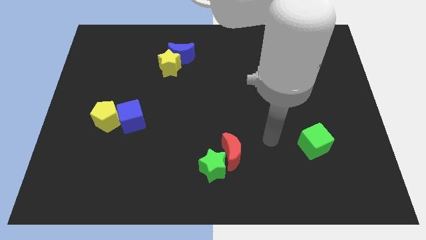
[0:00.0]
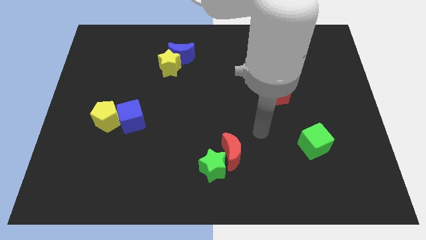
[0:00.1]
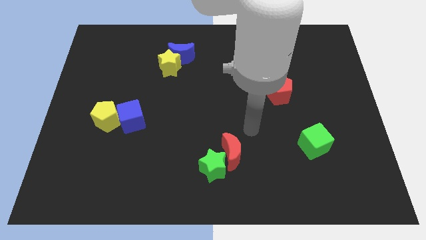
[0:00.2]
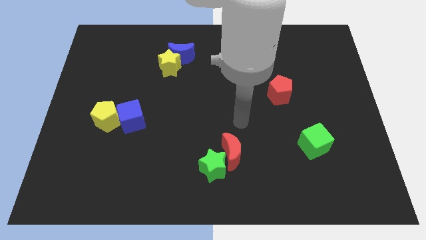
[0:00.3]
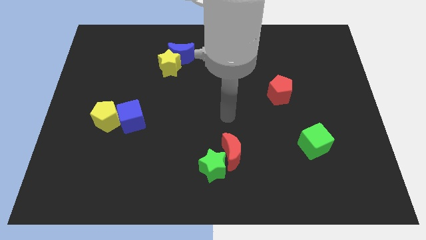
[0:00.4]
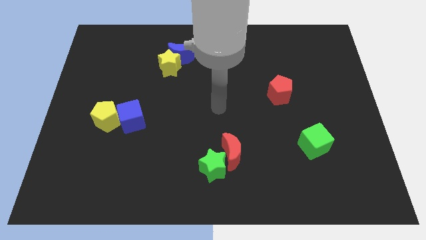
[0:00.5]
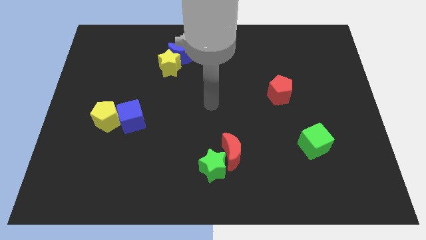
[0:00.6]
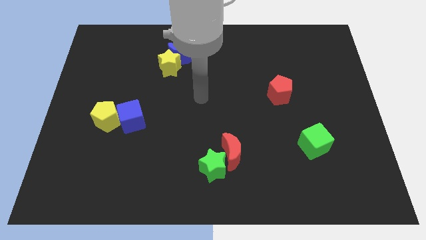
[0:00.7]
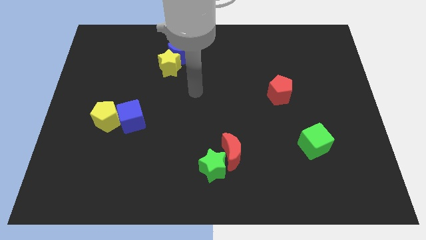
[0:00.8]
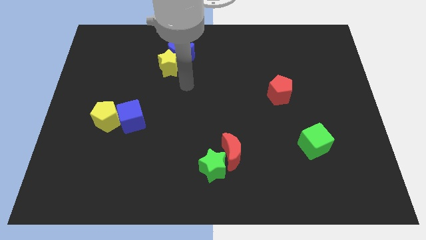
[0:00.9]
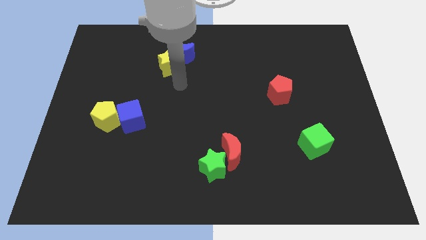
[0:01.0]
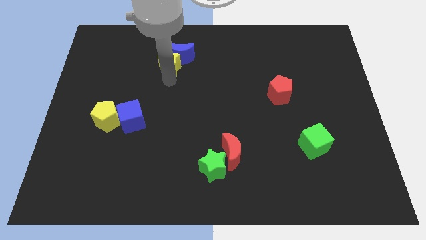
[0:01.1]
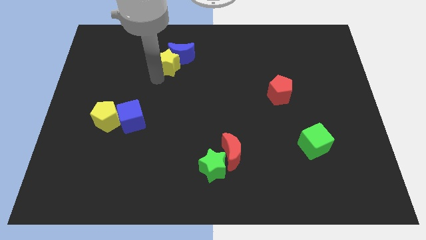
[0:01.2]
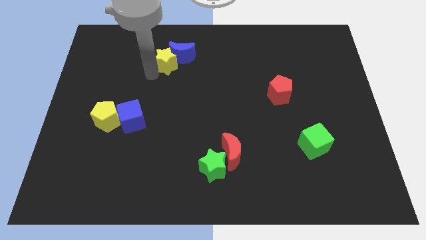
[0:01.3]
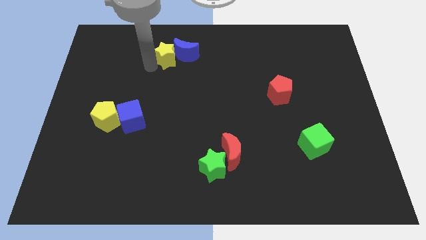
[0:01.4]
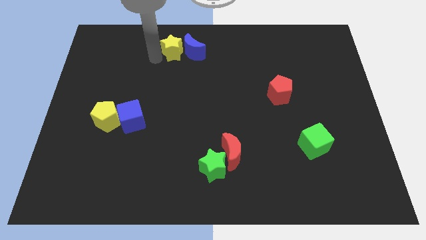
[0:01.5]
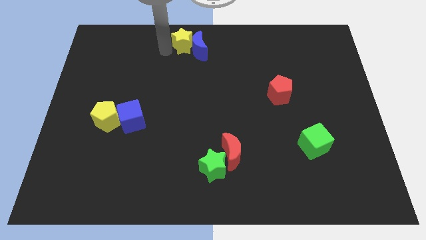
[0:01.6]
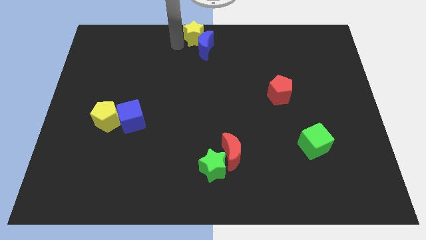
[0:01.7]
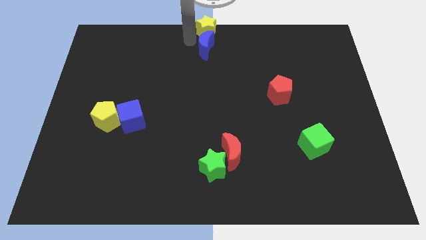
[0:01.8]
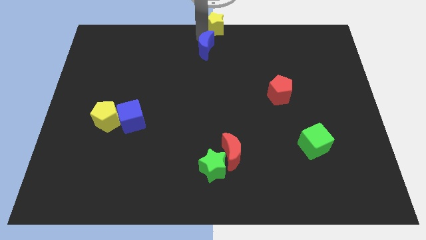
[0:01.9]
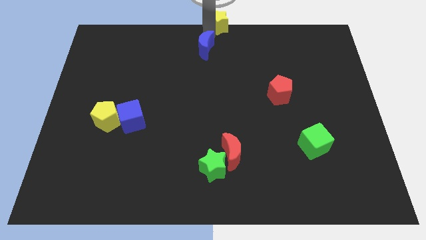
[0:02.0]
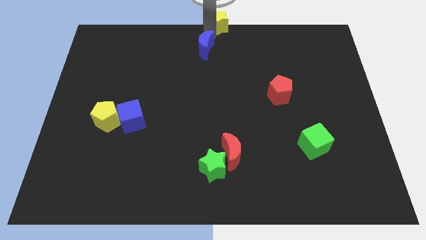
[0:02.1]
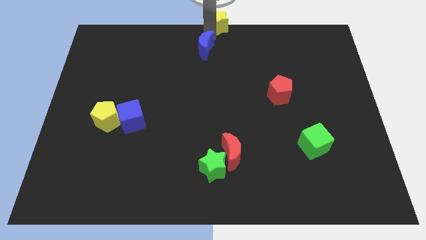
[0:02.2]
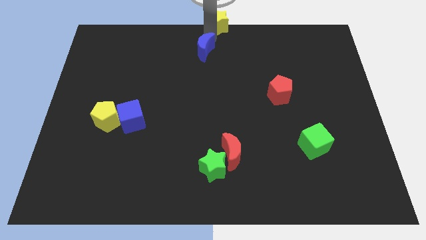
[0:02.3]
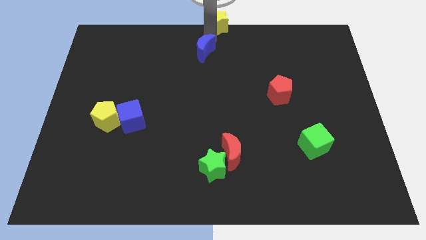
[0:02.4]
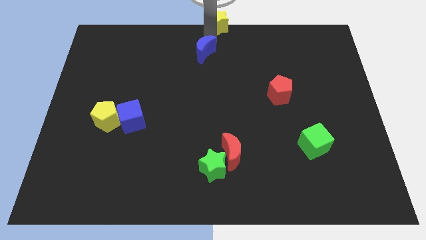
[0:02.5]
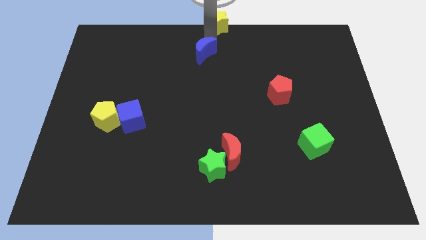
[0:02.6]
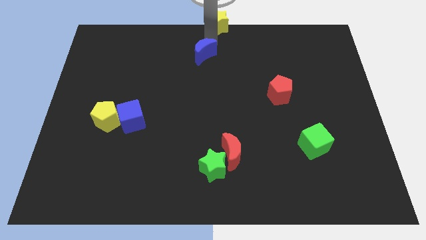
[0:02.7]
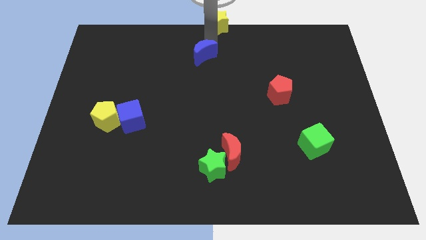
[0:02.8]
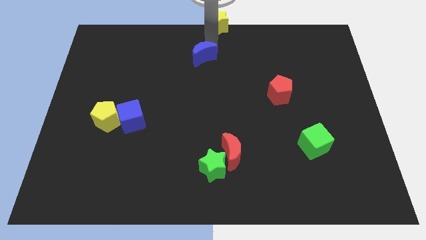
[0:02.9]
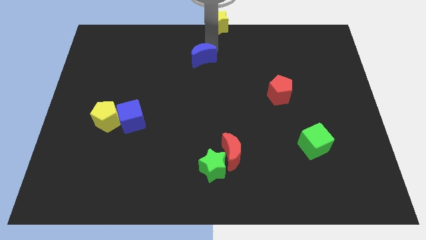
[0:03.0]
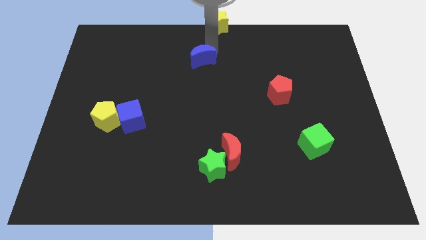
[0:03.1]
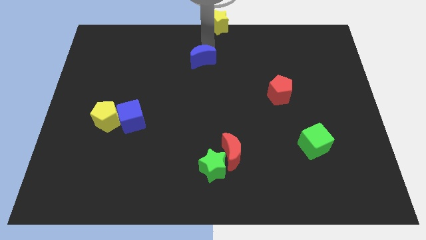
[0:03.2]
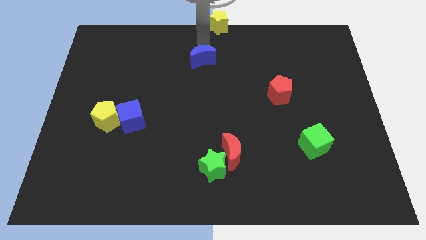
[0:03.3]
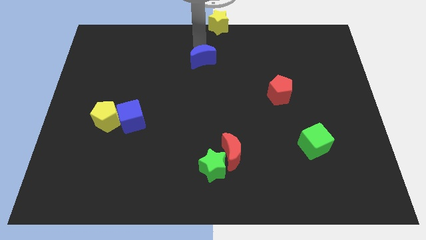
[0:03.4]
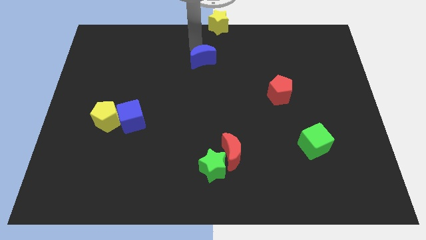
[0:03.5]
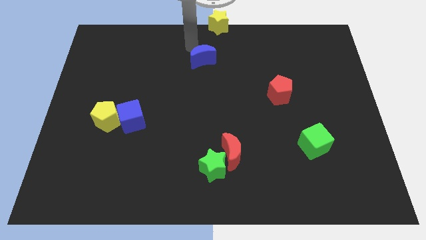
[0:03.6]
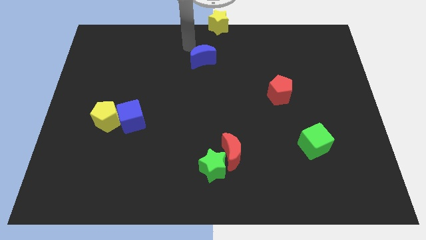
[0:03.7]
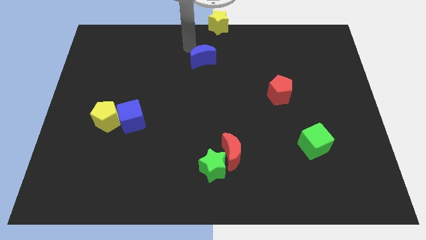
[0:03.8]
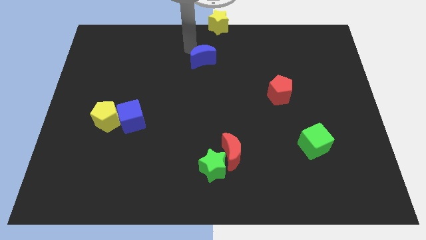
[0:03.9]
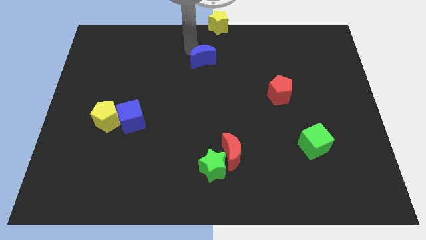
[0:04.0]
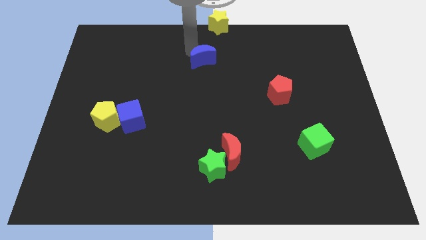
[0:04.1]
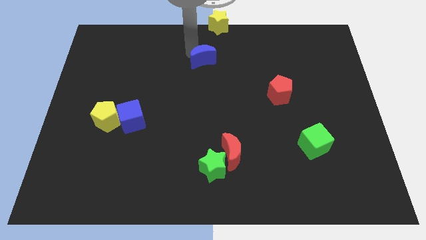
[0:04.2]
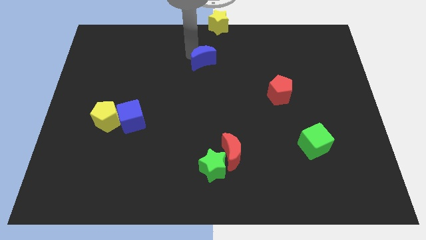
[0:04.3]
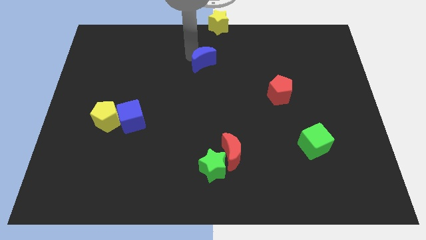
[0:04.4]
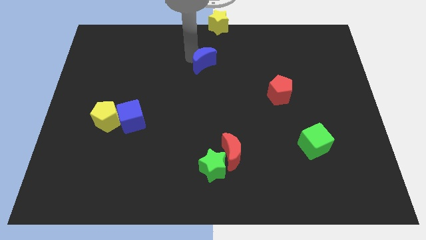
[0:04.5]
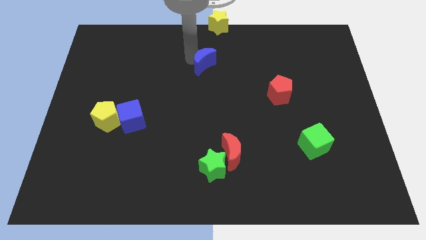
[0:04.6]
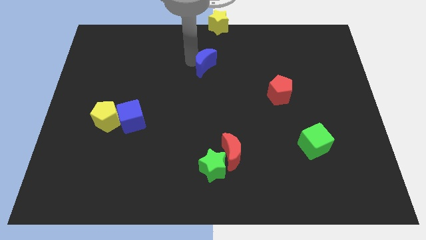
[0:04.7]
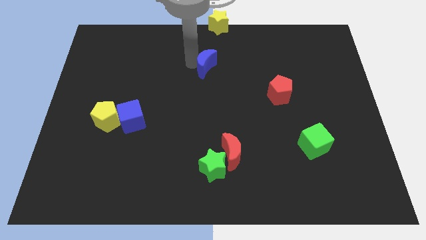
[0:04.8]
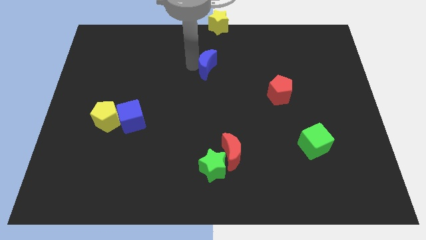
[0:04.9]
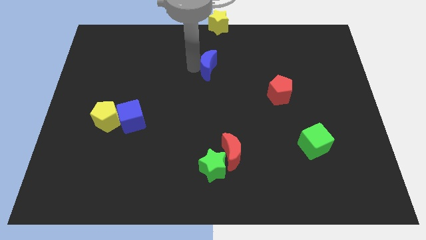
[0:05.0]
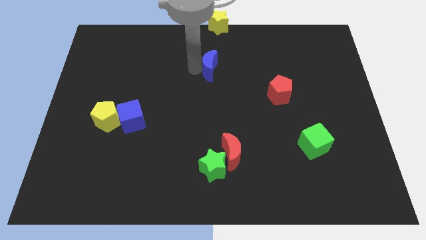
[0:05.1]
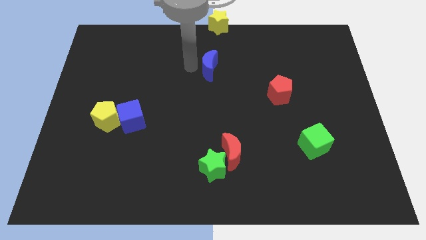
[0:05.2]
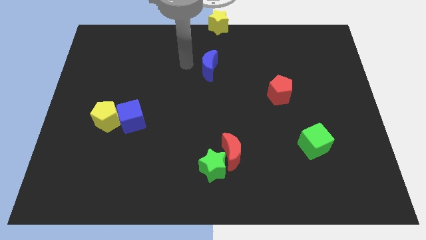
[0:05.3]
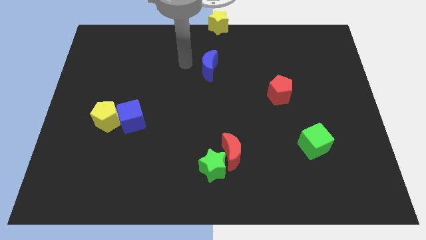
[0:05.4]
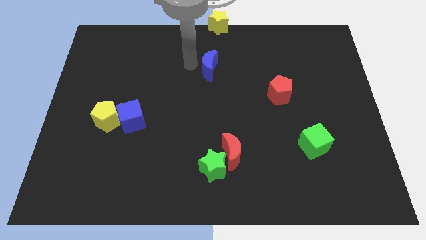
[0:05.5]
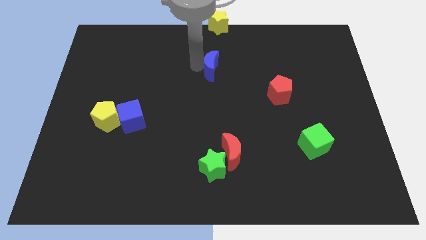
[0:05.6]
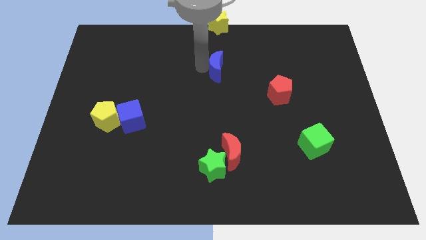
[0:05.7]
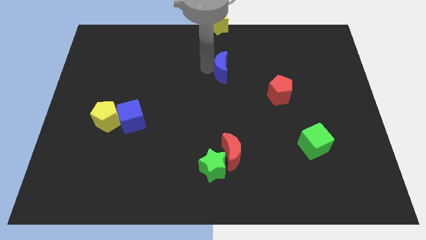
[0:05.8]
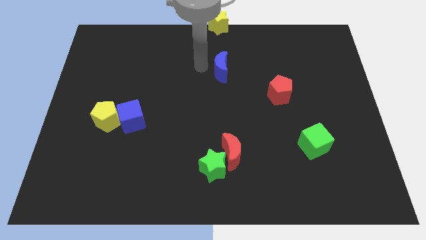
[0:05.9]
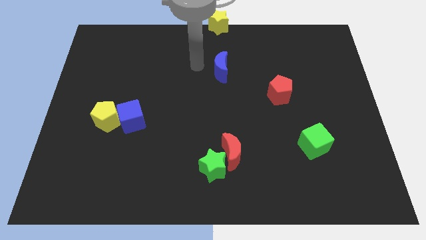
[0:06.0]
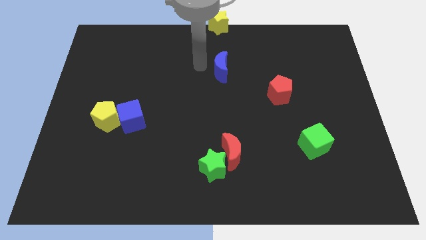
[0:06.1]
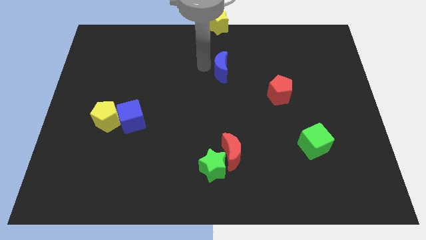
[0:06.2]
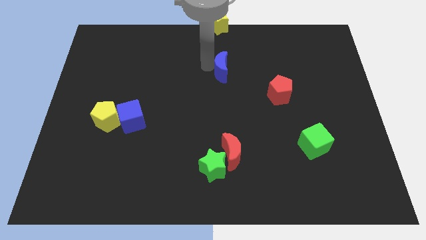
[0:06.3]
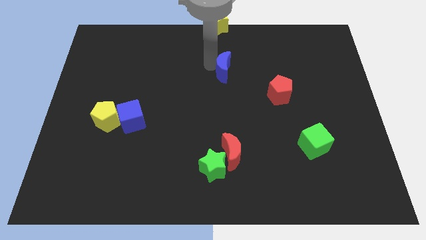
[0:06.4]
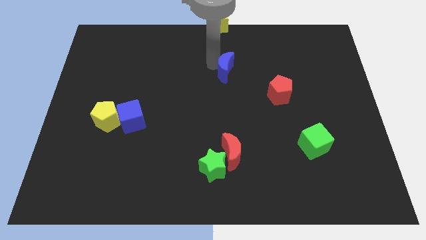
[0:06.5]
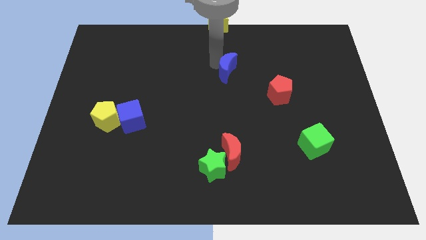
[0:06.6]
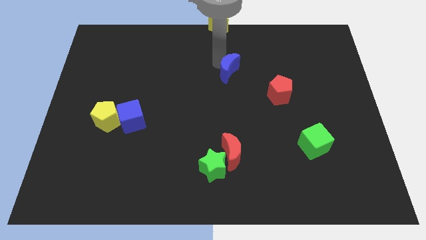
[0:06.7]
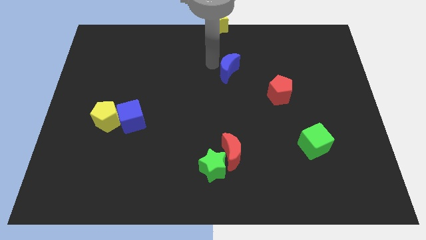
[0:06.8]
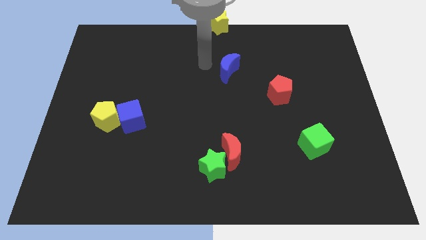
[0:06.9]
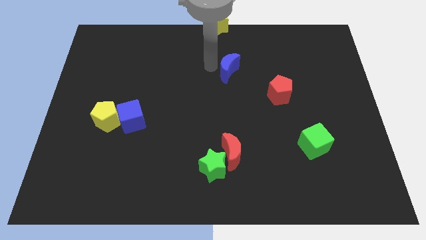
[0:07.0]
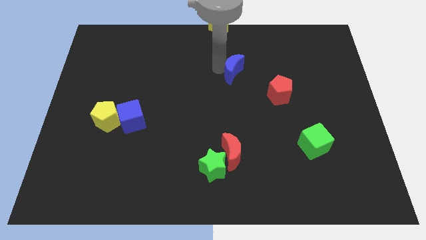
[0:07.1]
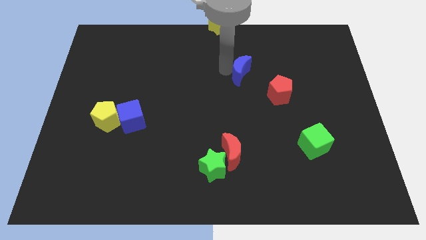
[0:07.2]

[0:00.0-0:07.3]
put the blue moon diagonally up and to the left of the red pentagon
